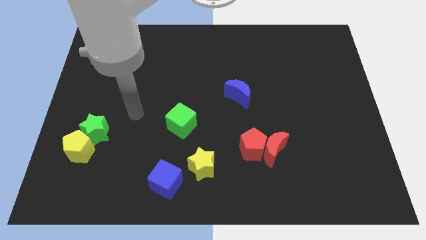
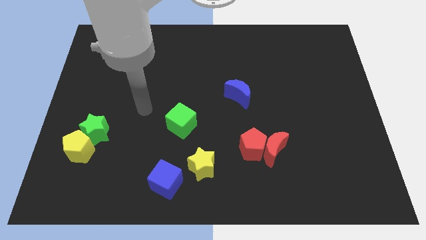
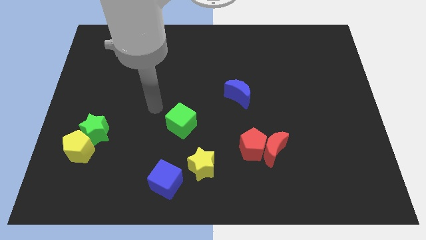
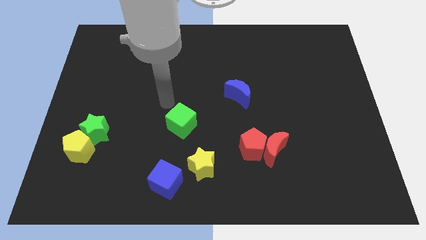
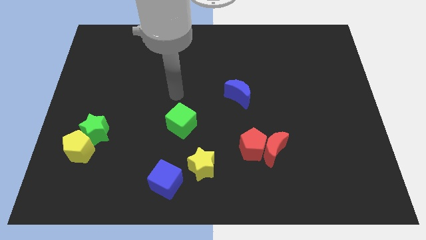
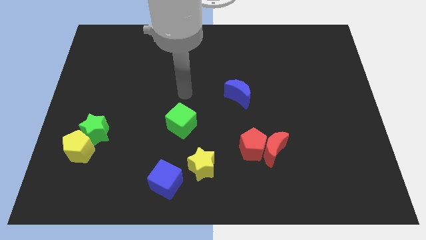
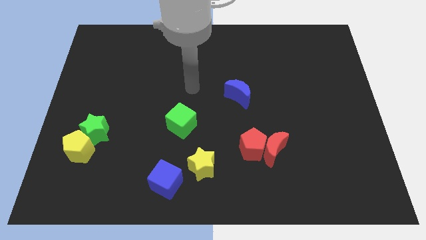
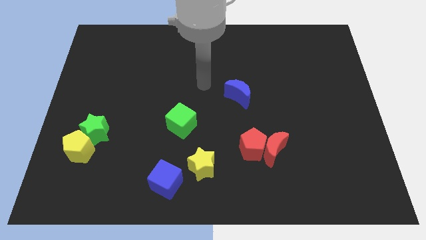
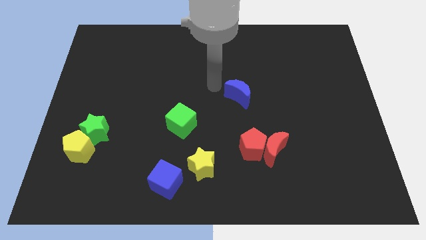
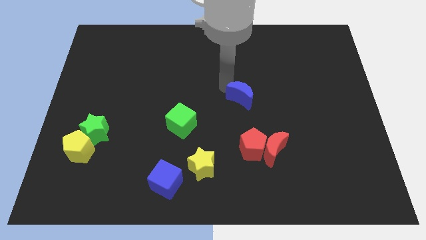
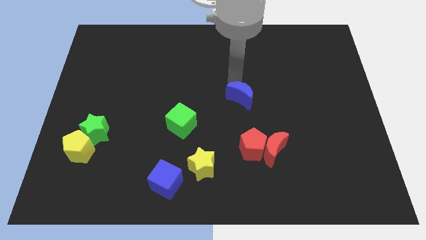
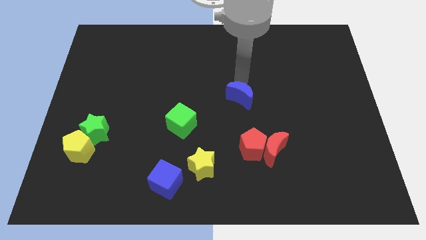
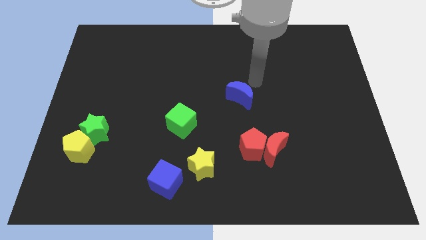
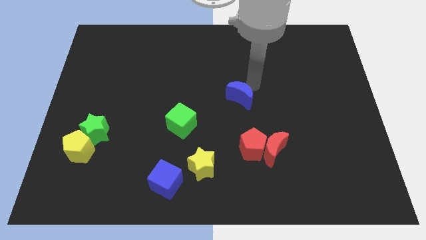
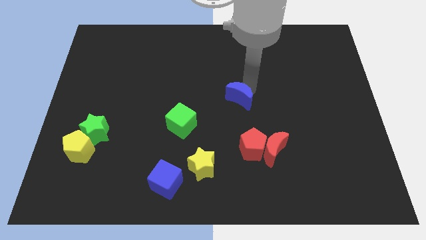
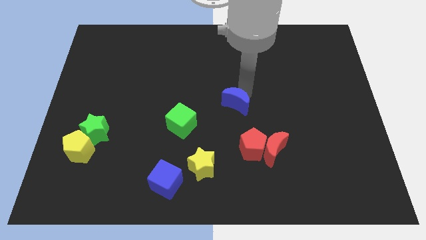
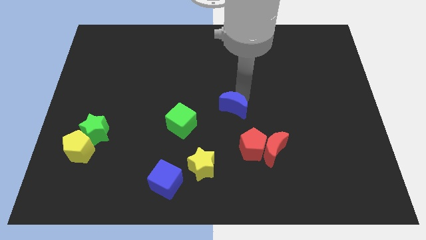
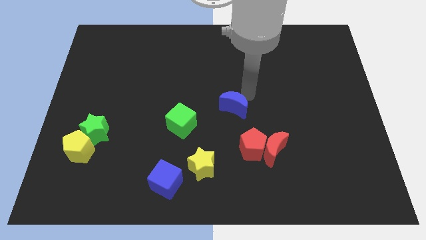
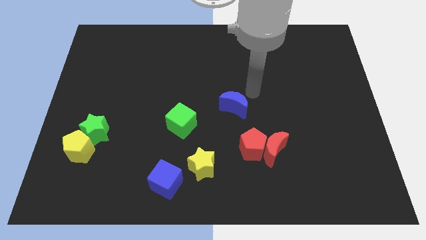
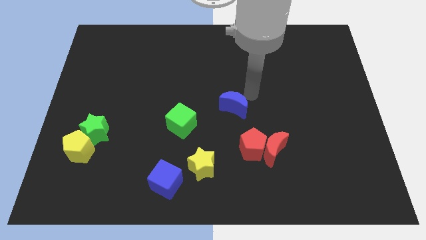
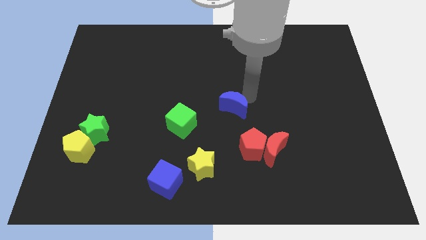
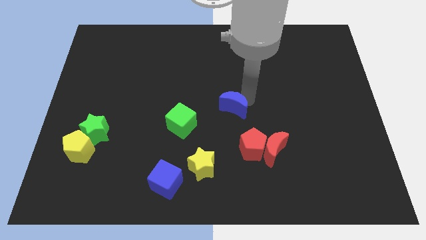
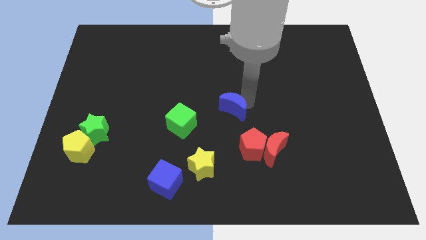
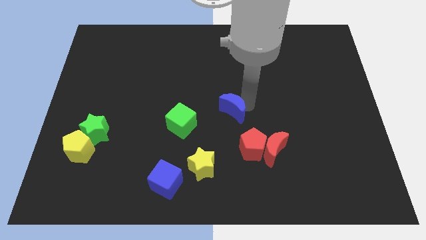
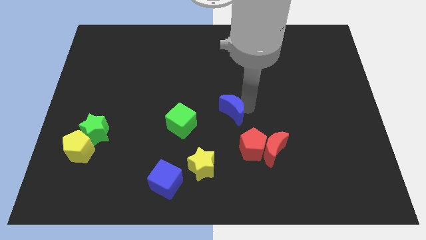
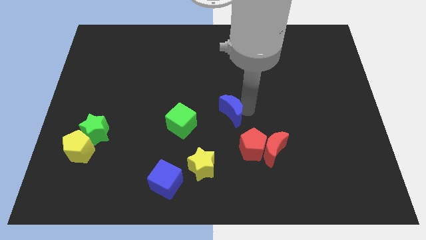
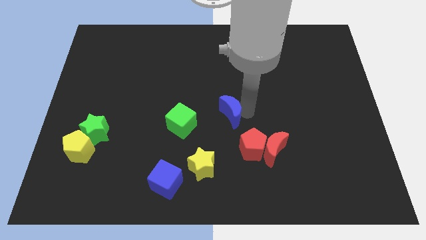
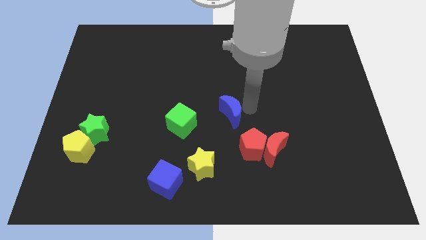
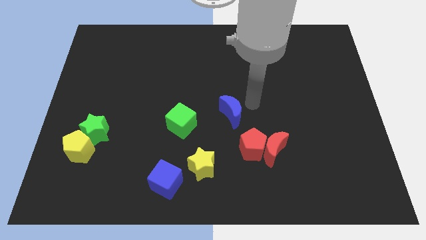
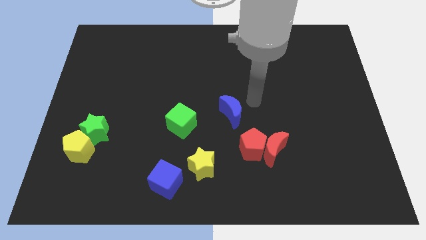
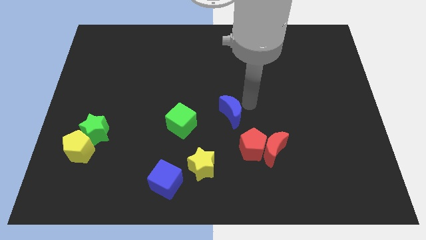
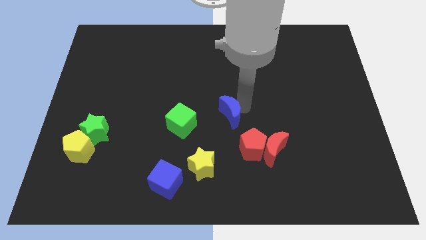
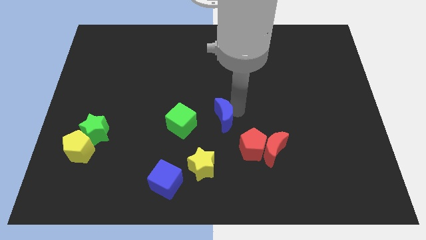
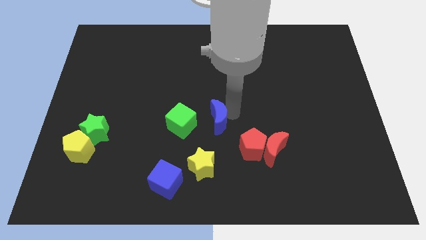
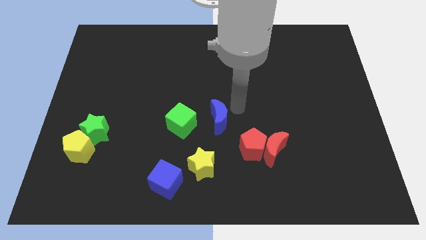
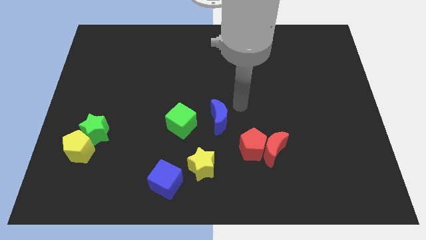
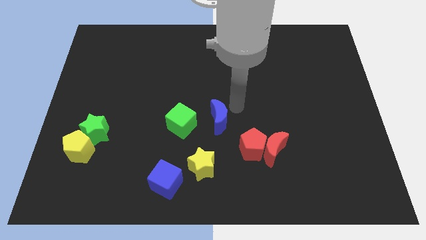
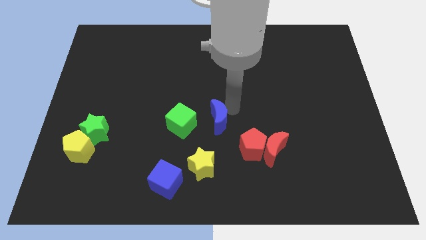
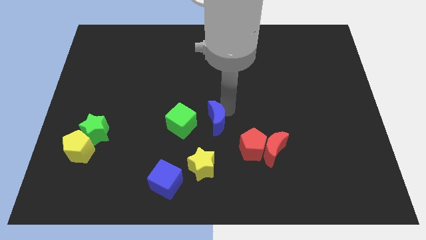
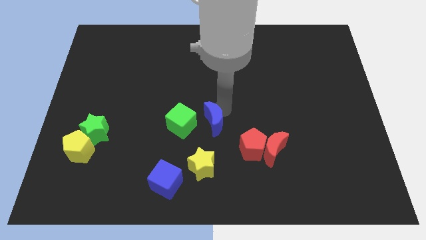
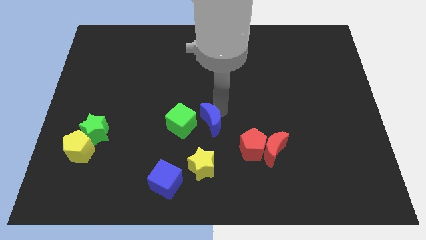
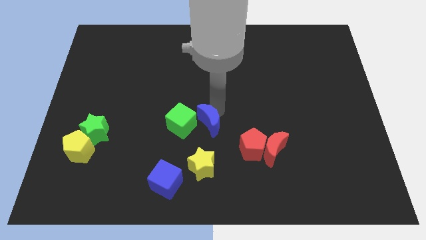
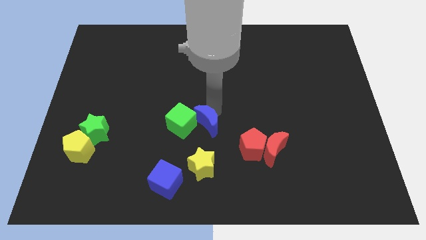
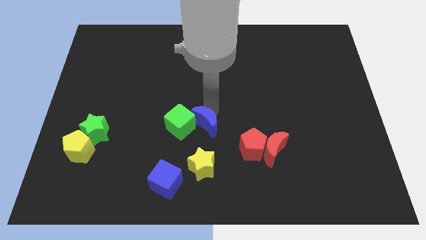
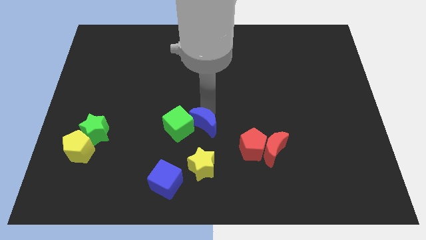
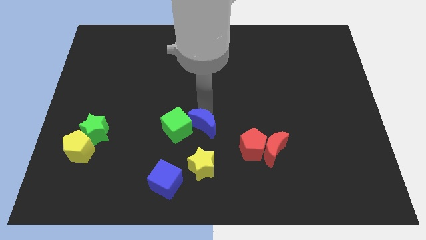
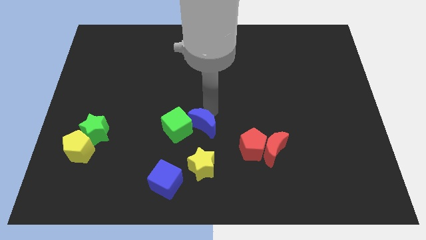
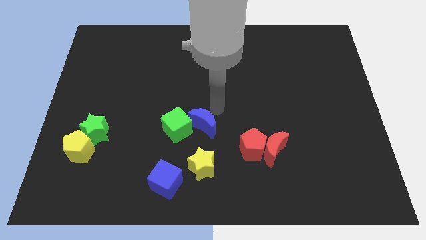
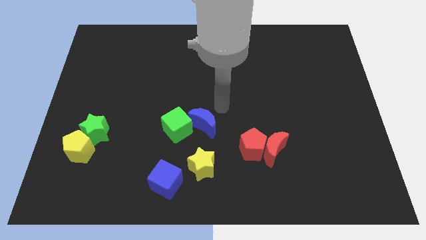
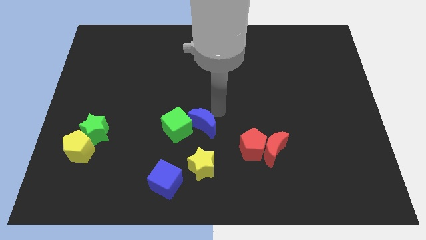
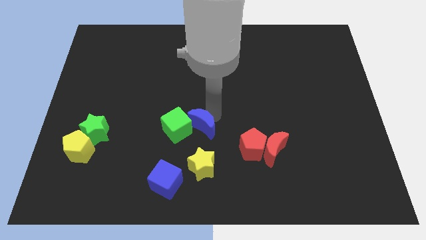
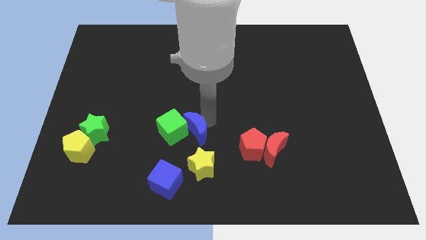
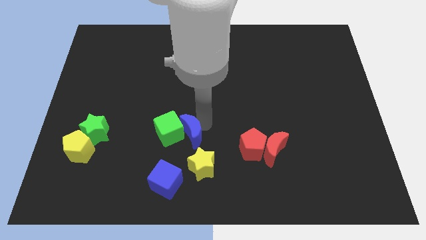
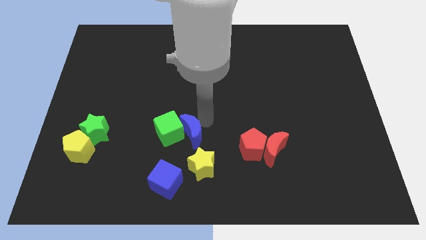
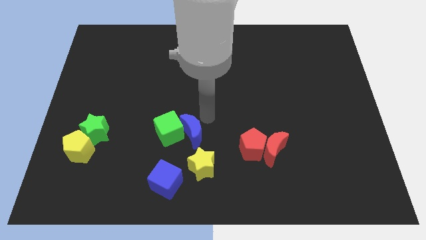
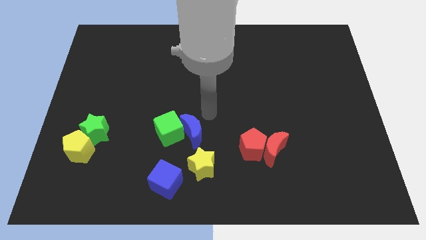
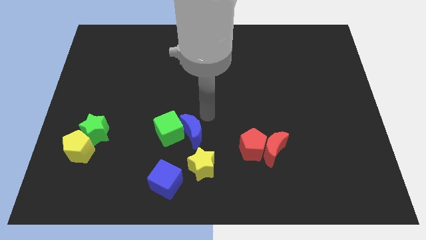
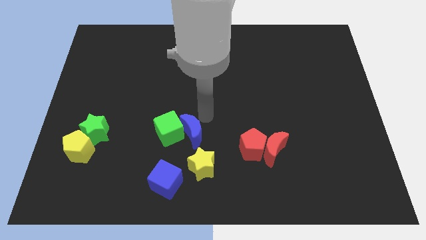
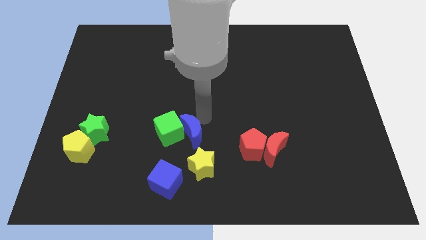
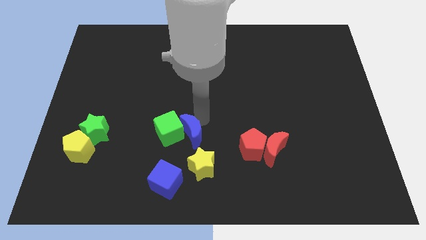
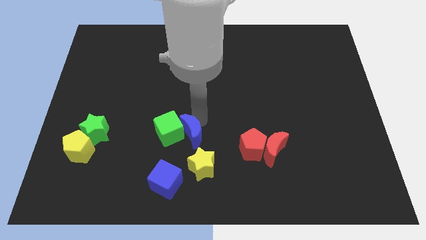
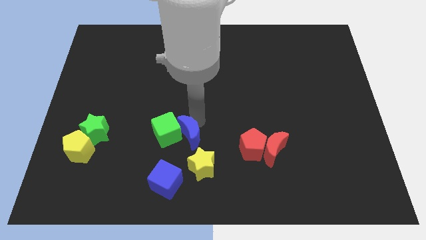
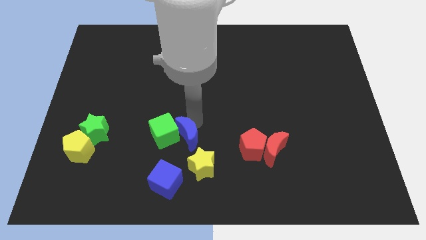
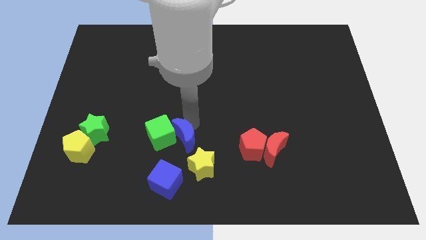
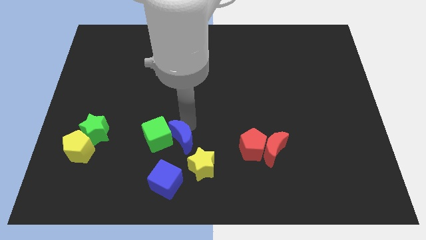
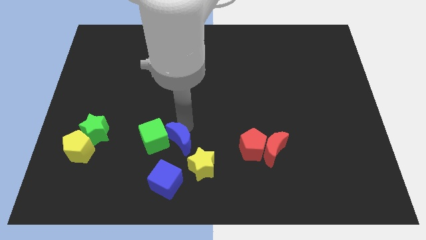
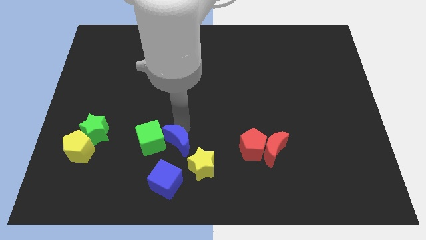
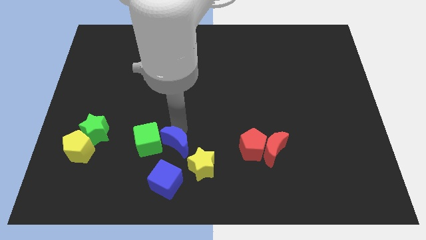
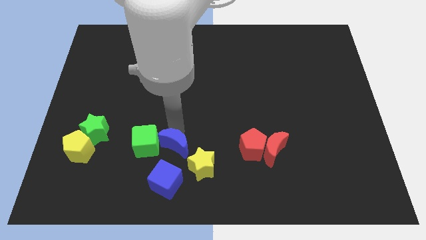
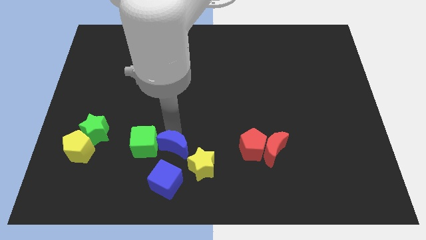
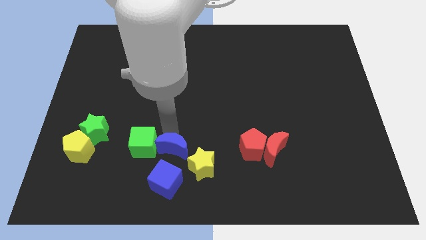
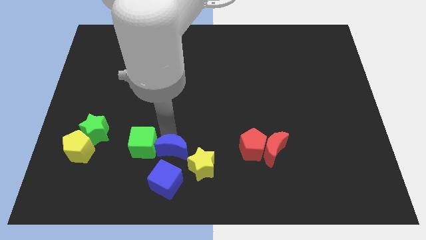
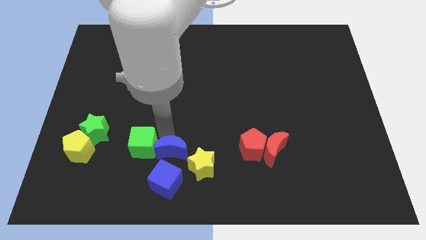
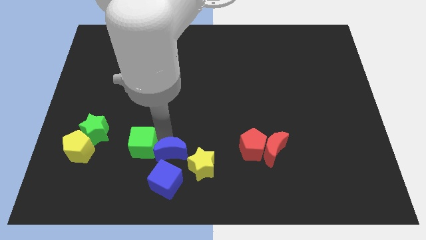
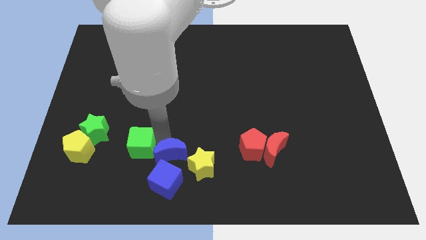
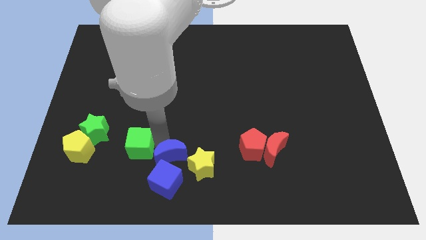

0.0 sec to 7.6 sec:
slide the blue moon close to the blue cube
